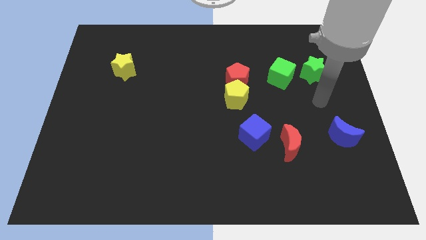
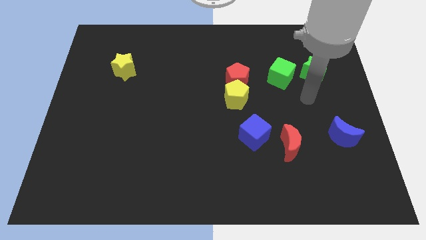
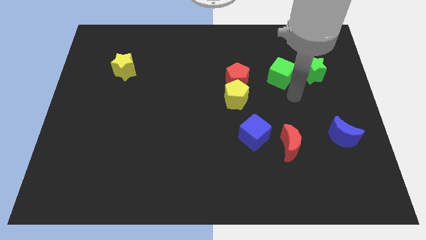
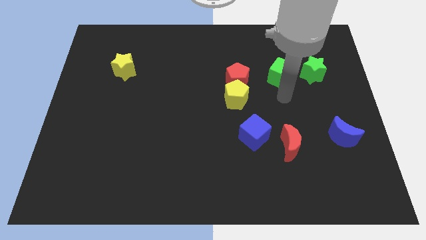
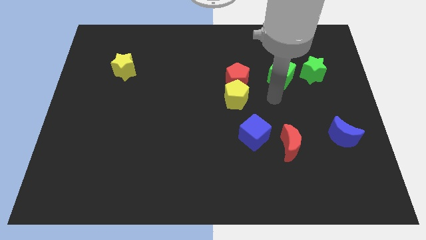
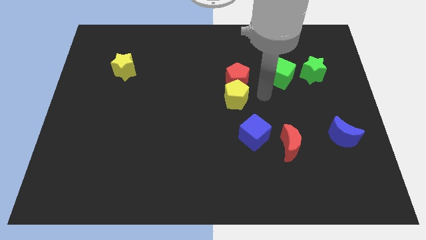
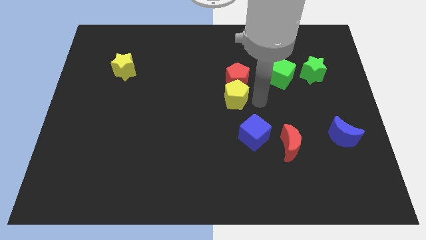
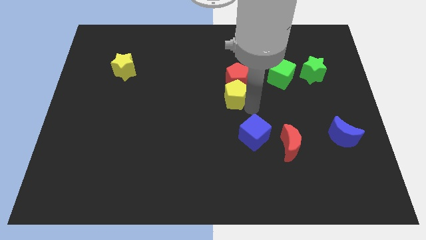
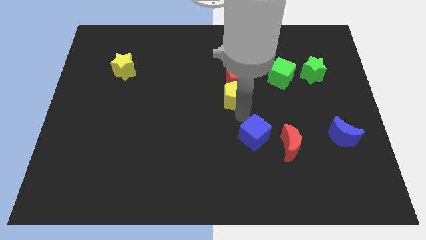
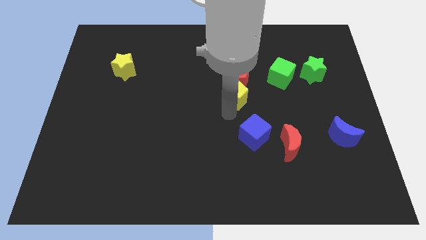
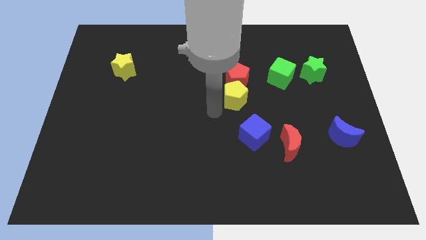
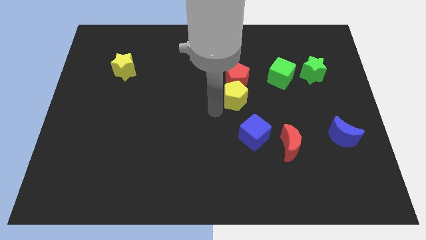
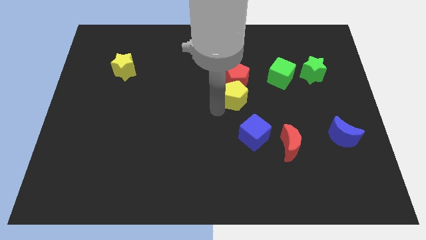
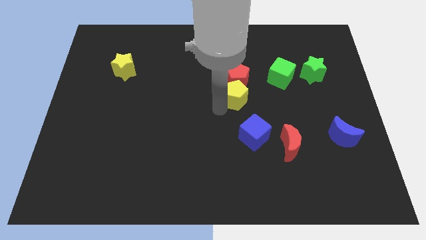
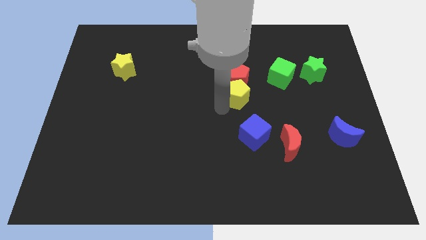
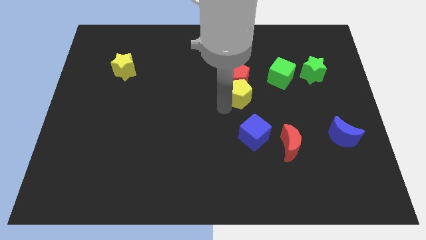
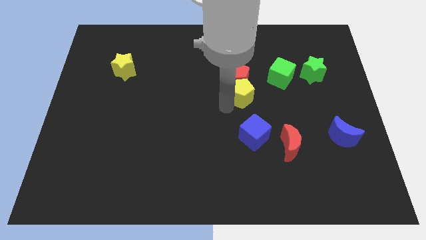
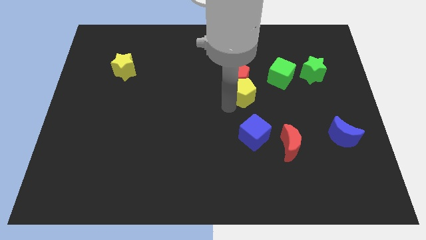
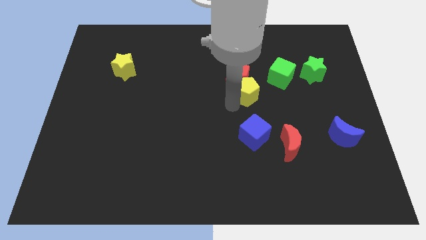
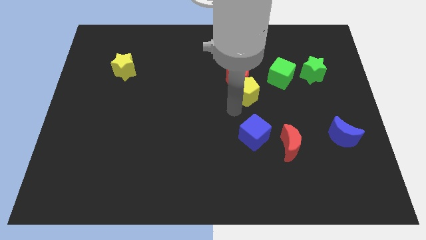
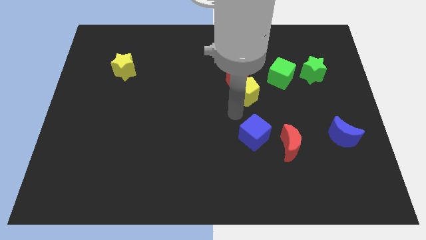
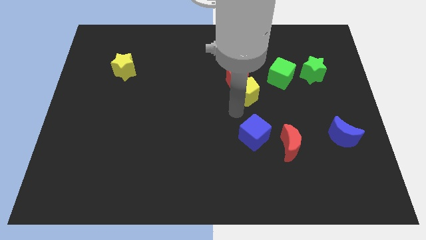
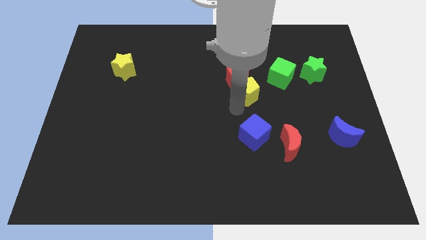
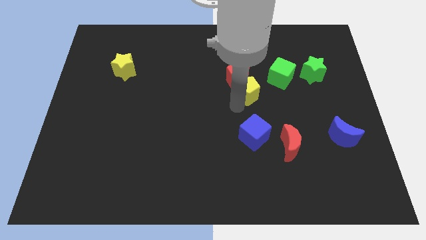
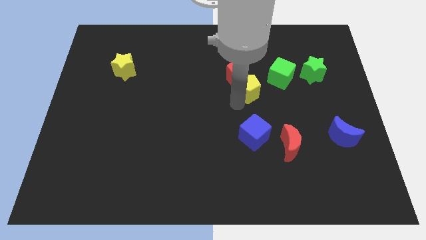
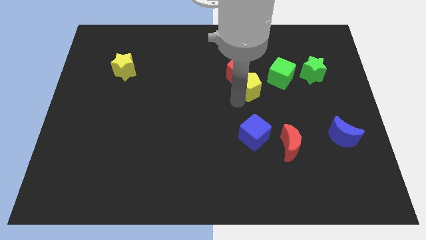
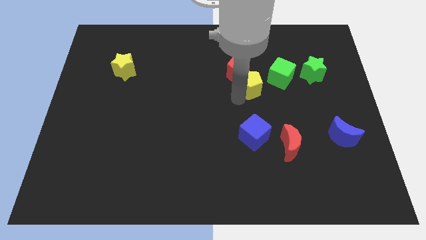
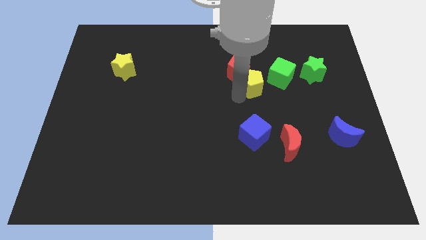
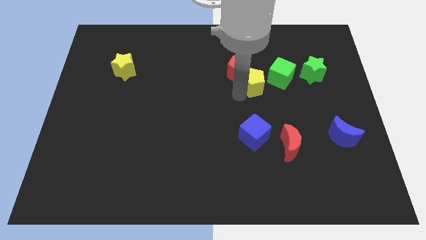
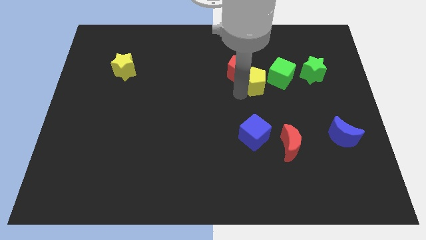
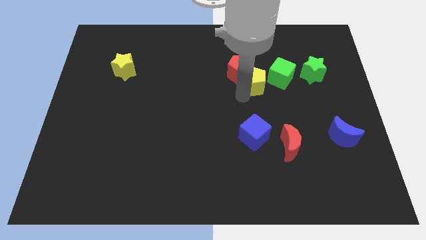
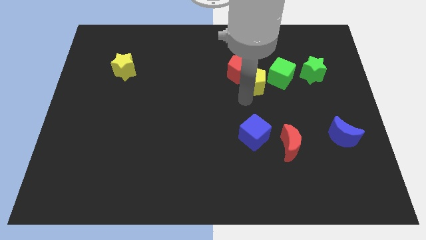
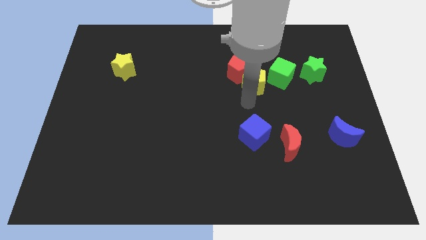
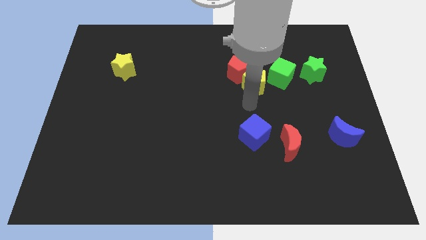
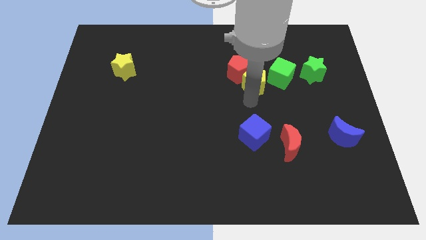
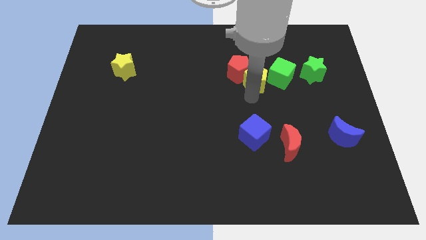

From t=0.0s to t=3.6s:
slightly move the yellow pentagon up and then right

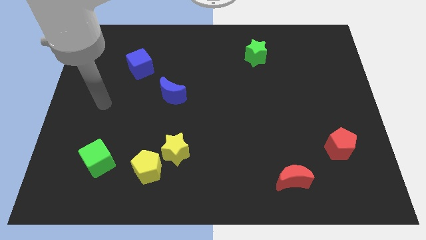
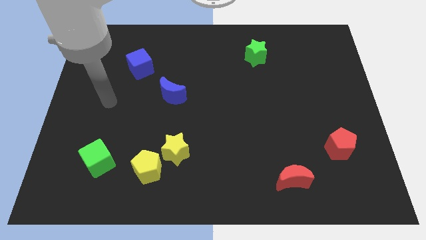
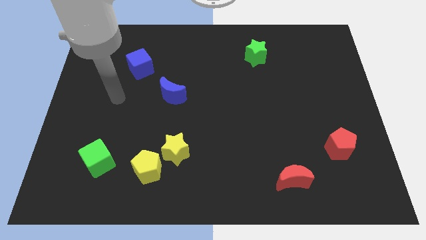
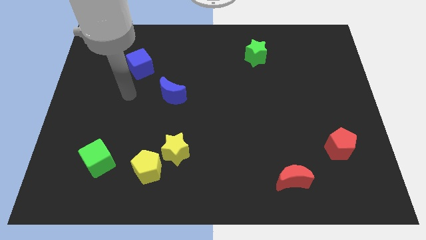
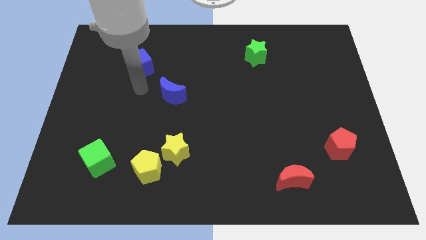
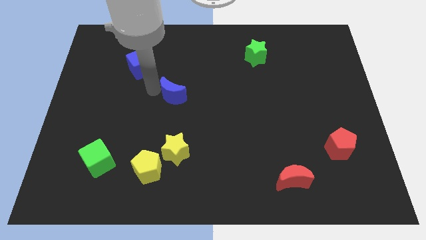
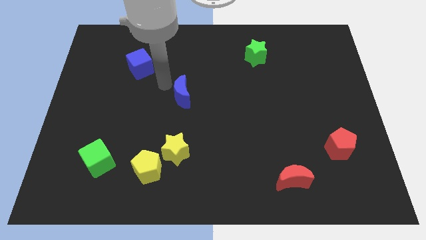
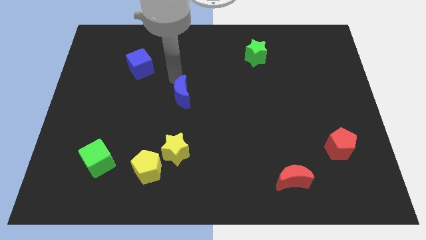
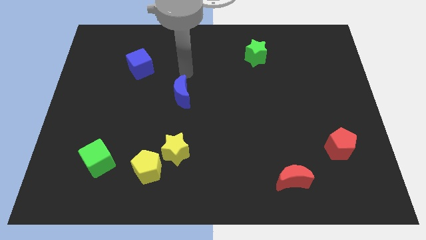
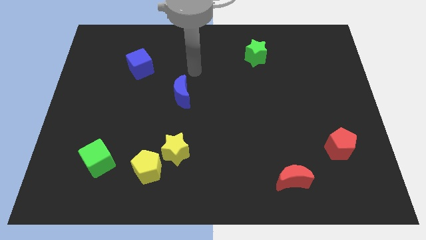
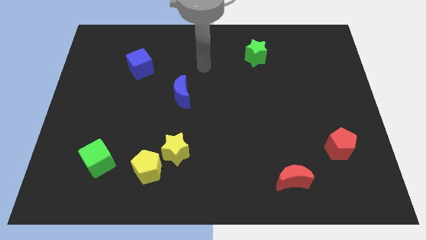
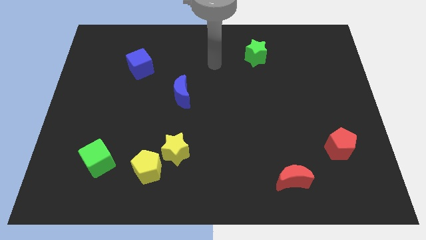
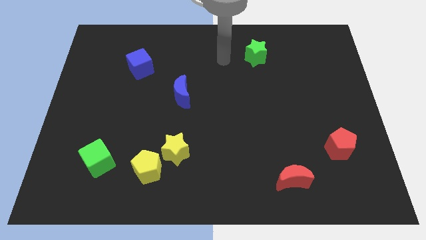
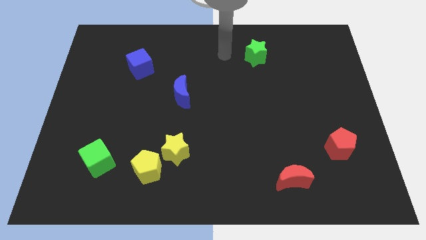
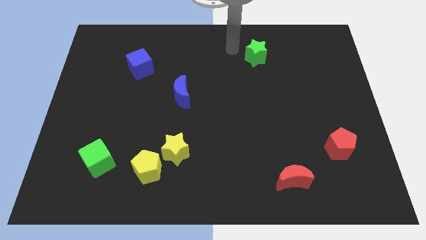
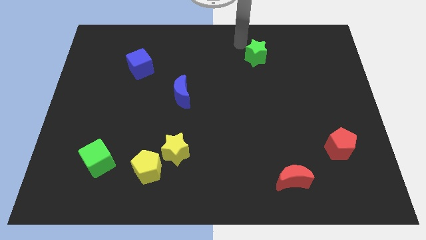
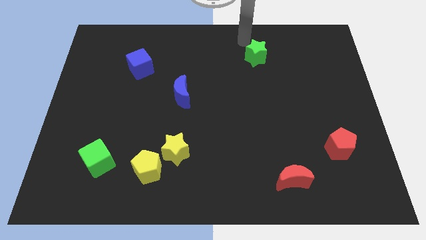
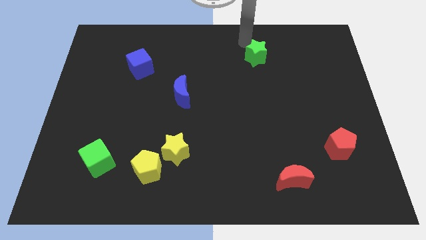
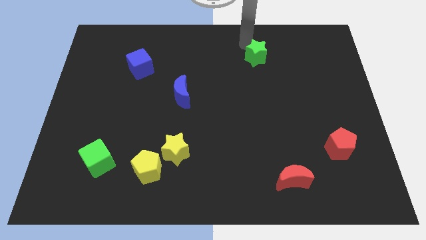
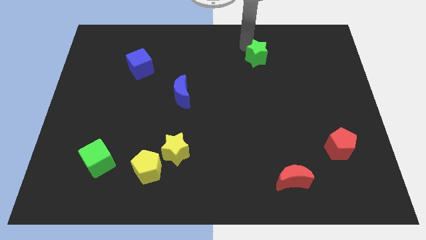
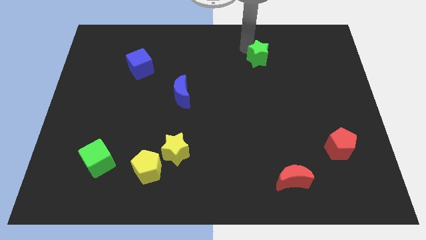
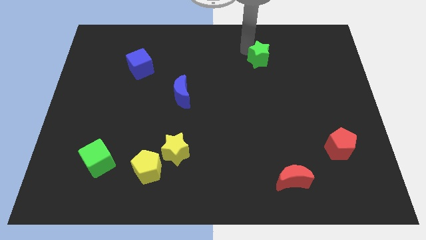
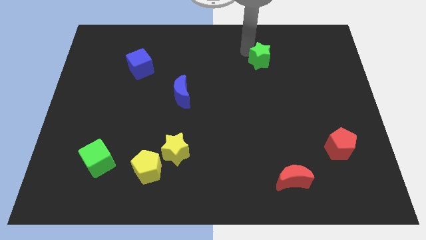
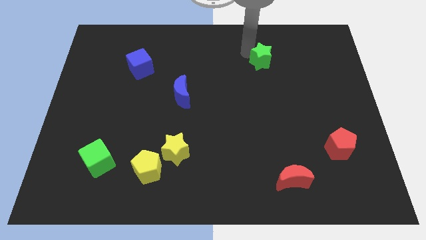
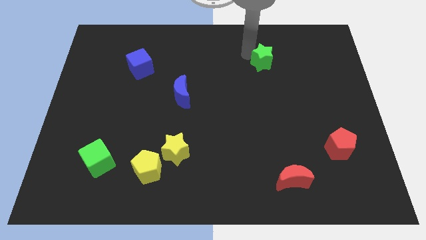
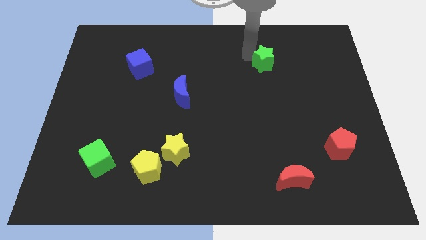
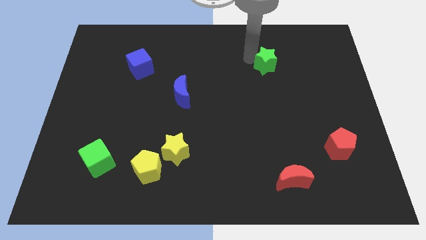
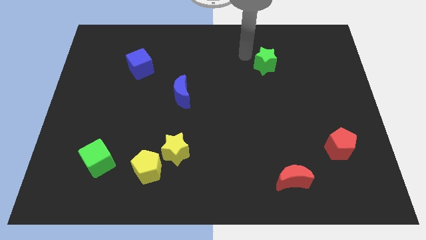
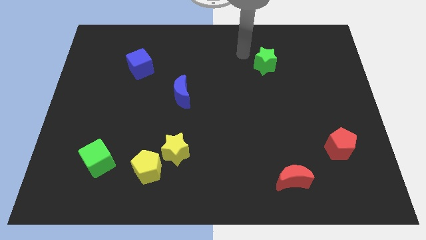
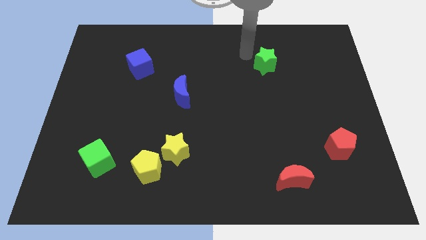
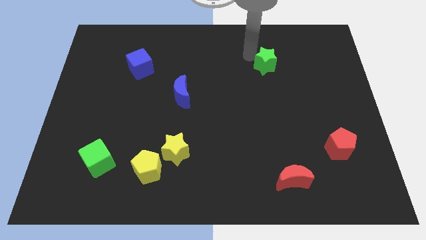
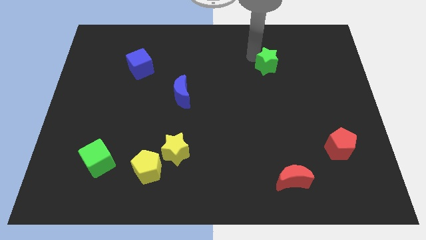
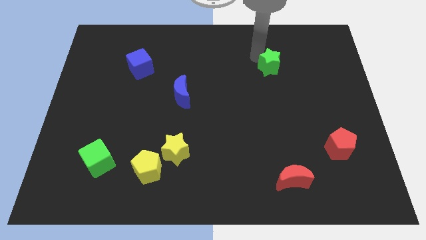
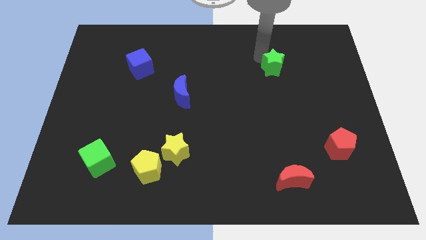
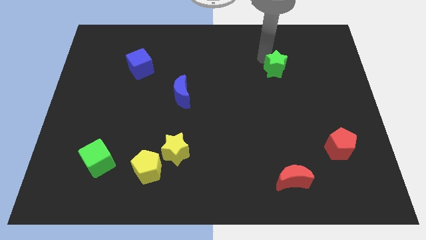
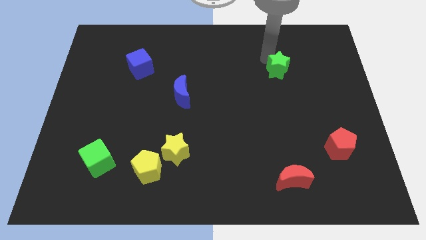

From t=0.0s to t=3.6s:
slide the green star downwards and to the right somewhat

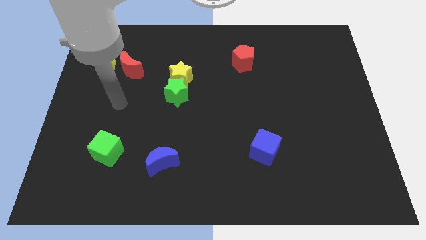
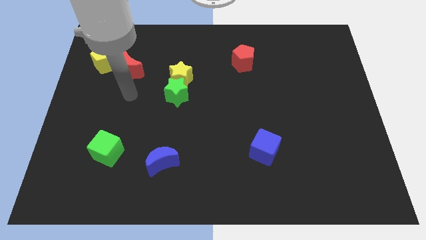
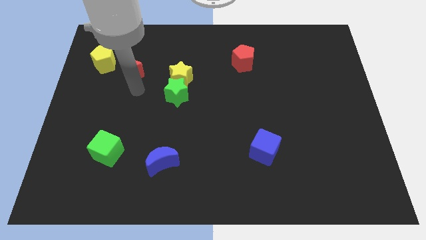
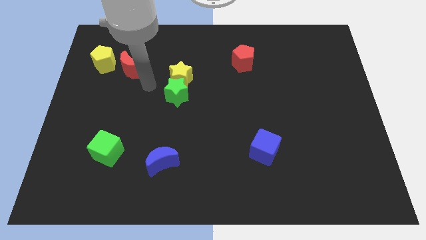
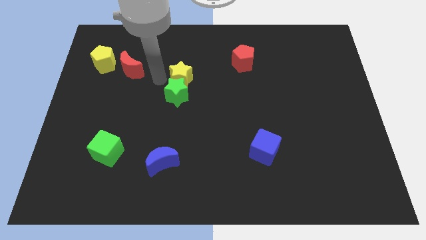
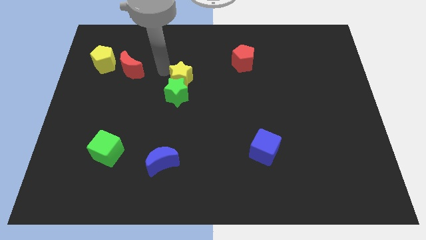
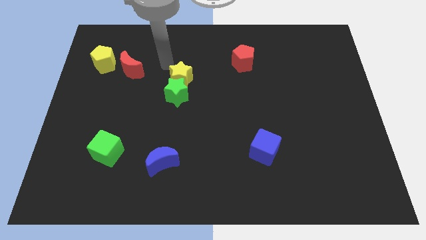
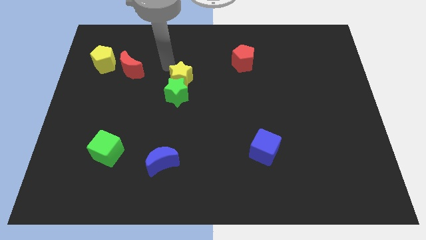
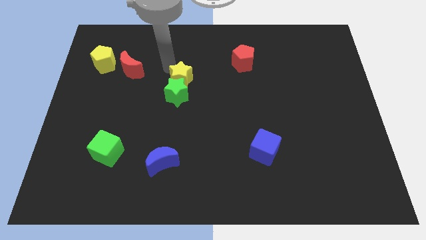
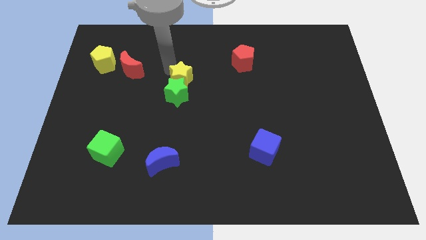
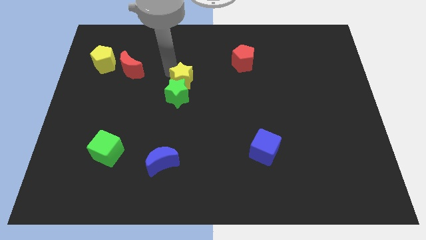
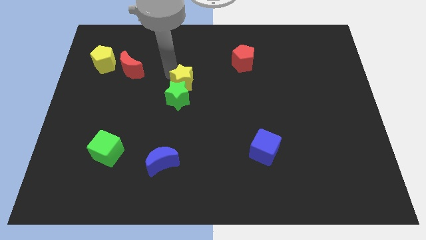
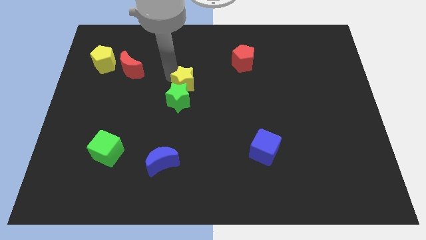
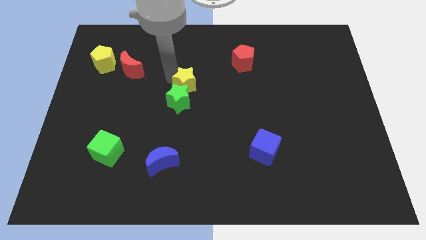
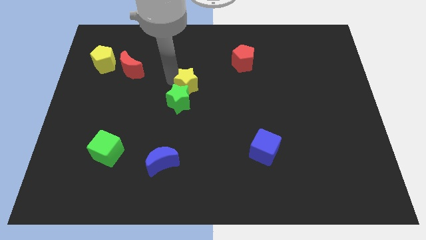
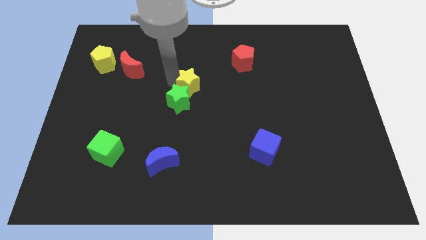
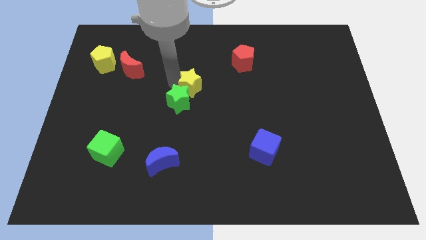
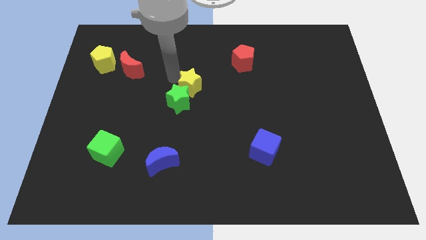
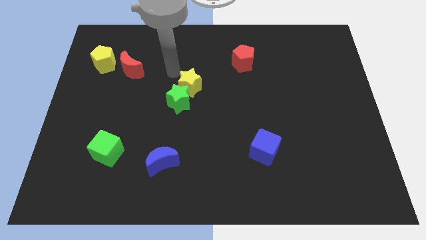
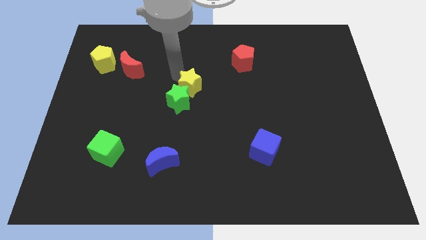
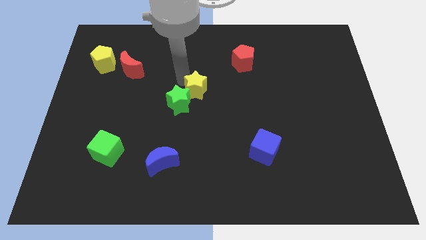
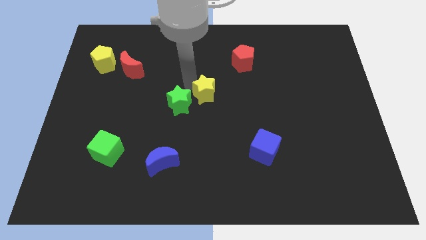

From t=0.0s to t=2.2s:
push the yellow star diagonally downwards and right a bit
